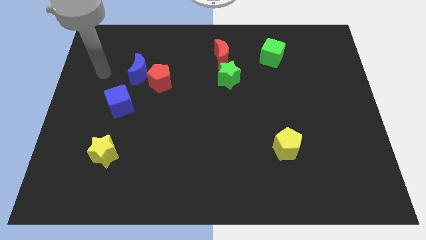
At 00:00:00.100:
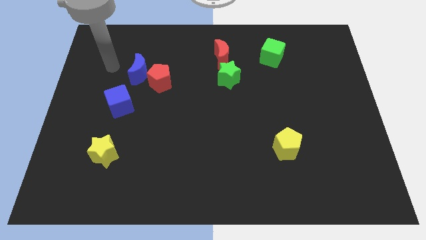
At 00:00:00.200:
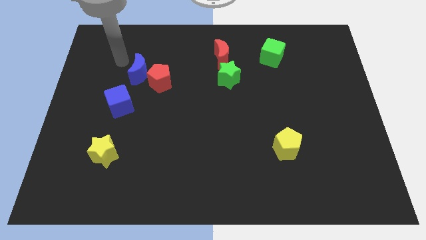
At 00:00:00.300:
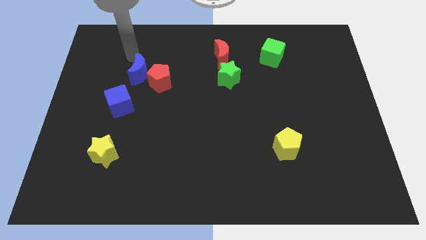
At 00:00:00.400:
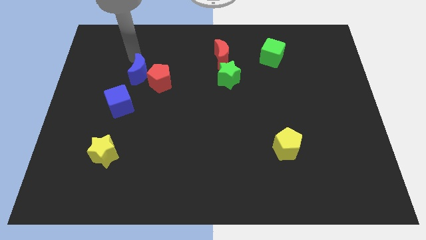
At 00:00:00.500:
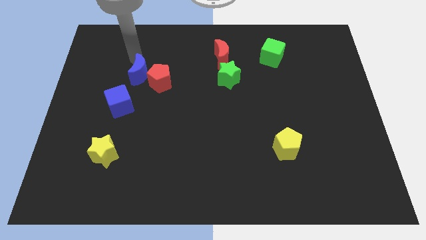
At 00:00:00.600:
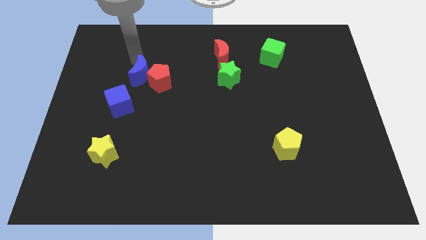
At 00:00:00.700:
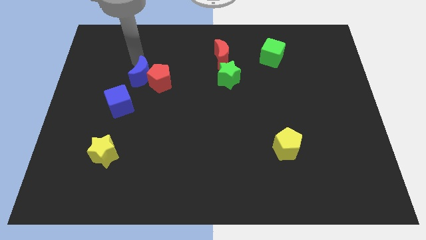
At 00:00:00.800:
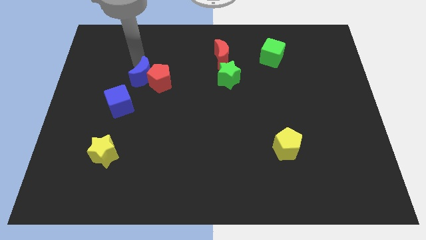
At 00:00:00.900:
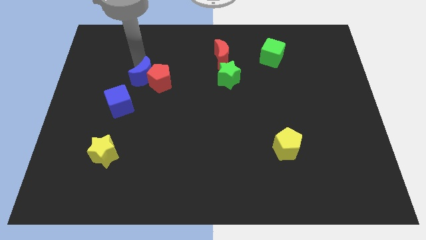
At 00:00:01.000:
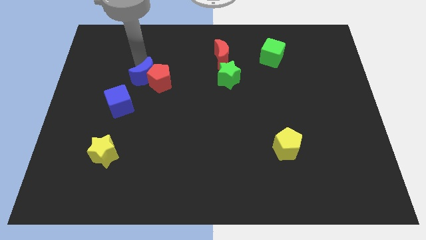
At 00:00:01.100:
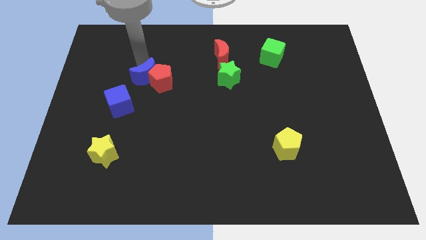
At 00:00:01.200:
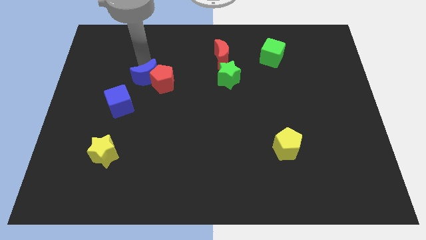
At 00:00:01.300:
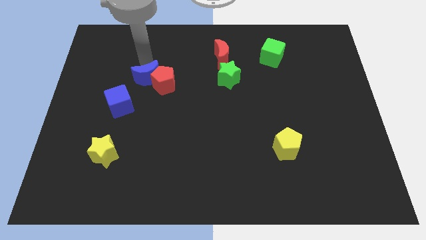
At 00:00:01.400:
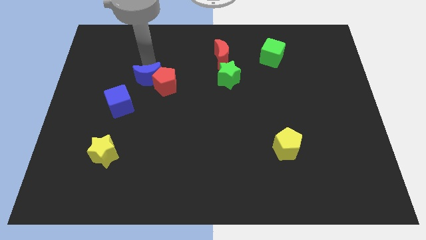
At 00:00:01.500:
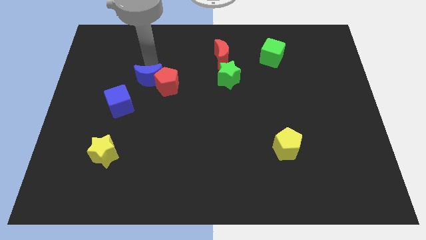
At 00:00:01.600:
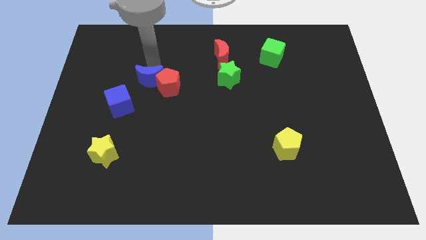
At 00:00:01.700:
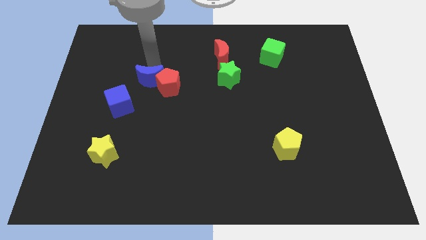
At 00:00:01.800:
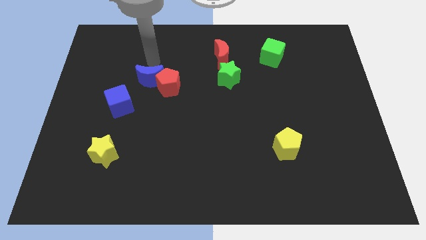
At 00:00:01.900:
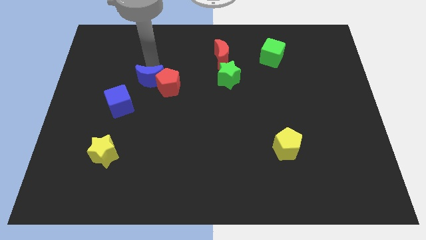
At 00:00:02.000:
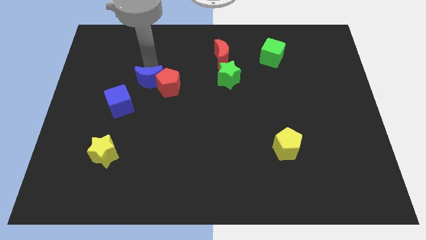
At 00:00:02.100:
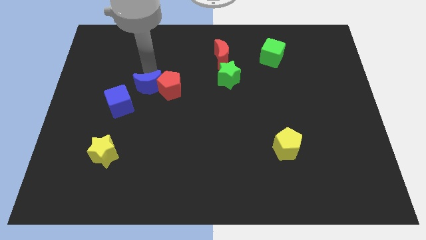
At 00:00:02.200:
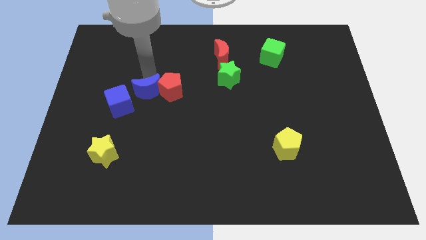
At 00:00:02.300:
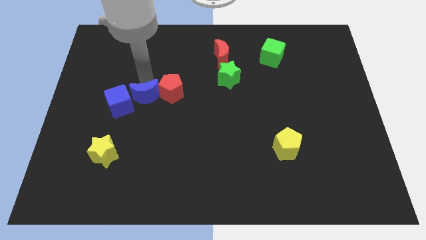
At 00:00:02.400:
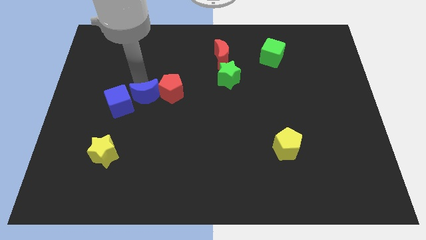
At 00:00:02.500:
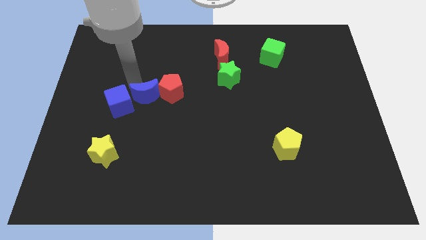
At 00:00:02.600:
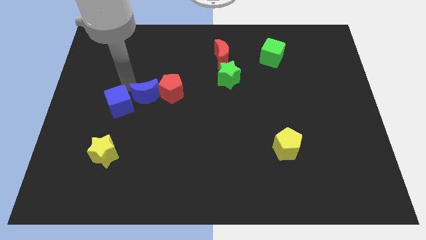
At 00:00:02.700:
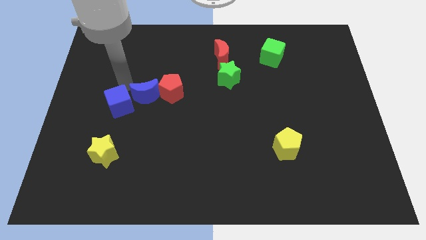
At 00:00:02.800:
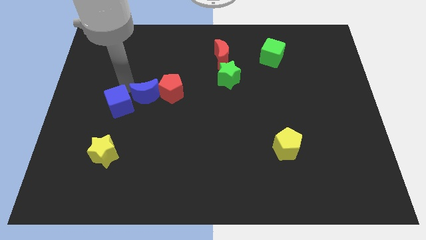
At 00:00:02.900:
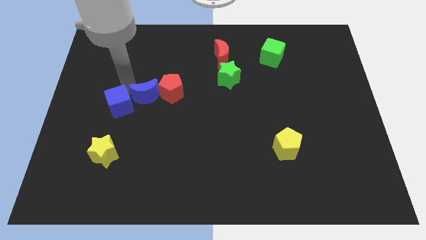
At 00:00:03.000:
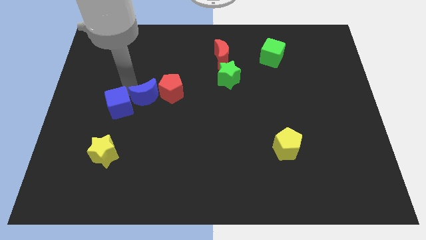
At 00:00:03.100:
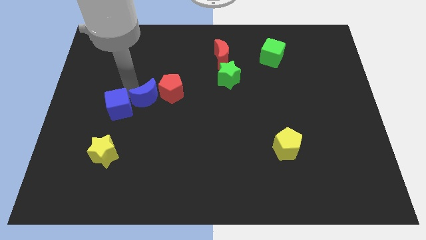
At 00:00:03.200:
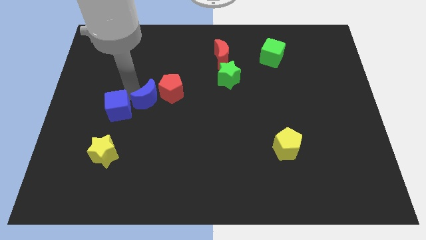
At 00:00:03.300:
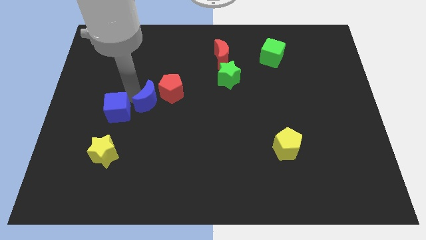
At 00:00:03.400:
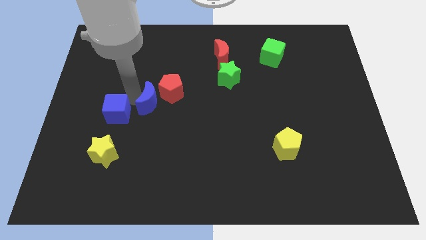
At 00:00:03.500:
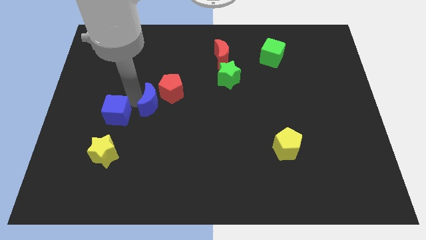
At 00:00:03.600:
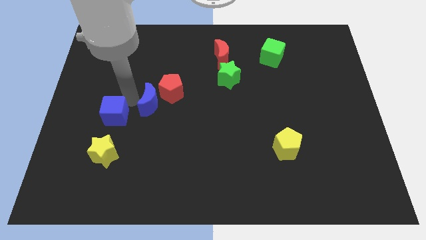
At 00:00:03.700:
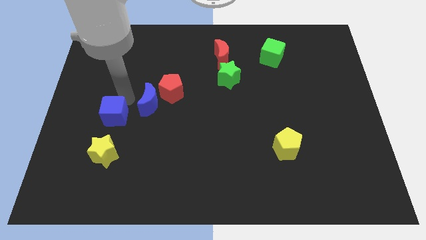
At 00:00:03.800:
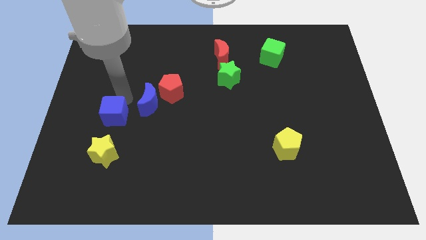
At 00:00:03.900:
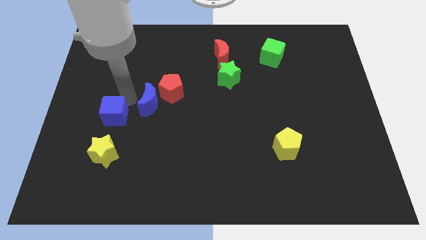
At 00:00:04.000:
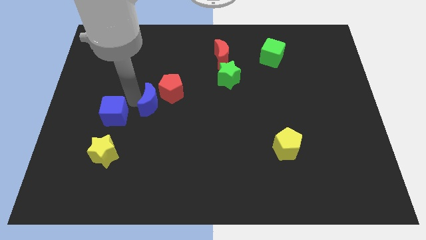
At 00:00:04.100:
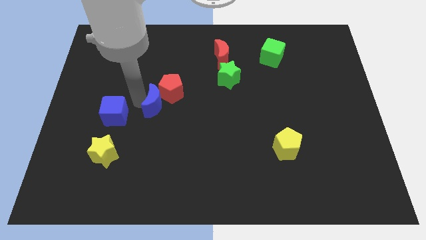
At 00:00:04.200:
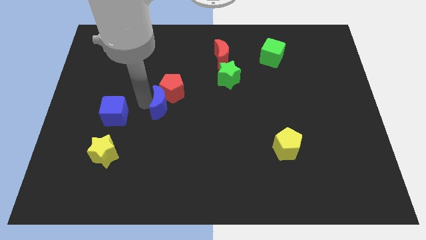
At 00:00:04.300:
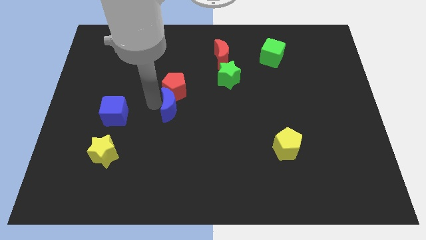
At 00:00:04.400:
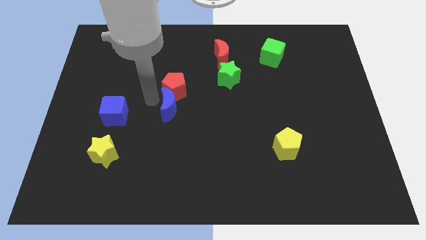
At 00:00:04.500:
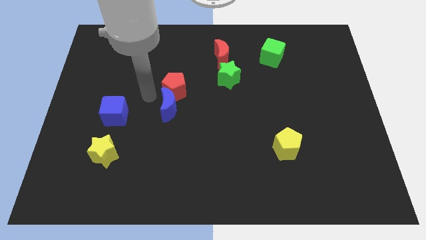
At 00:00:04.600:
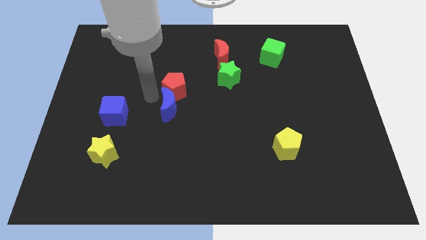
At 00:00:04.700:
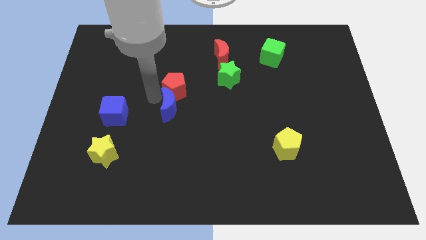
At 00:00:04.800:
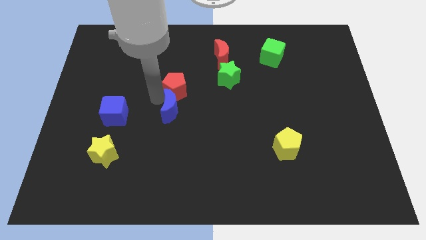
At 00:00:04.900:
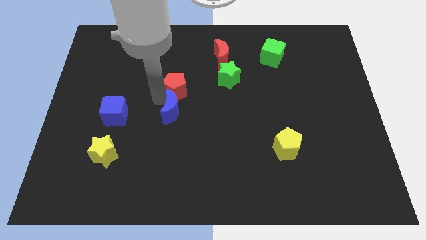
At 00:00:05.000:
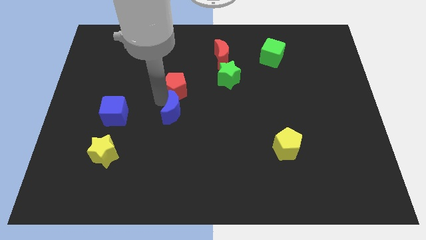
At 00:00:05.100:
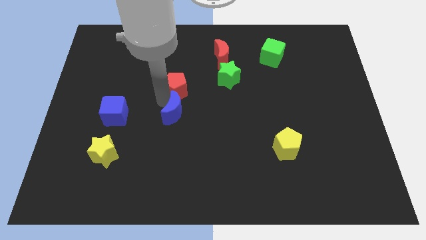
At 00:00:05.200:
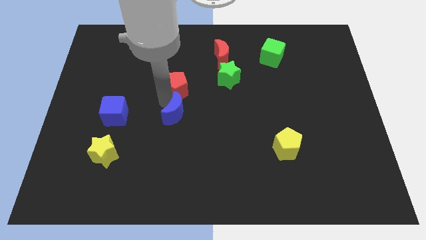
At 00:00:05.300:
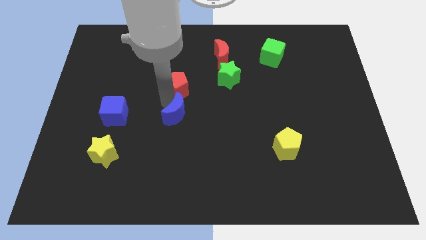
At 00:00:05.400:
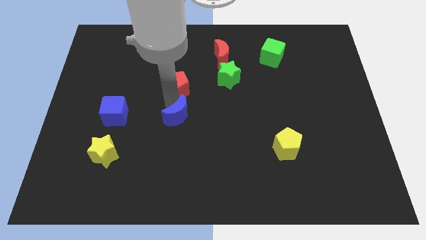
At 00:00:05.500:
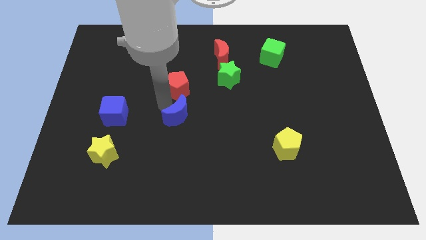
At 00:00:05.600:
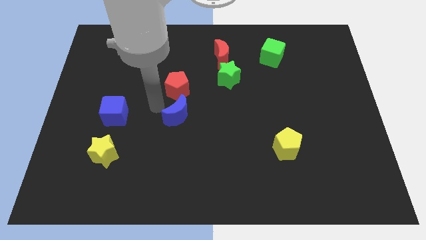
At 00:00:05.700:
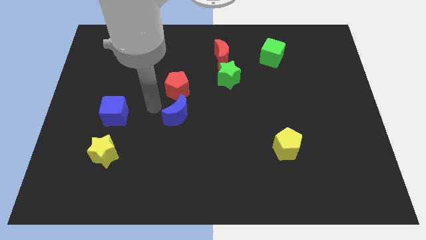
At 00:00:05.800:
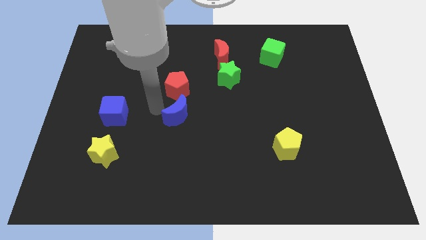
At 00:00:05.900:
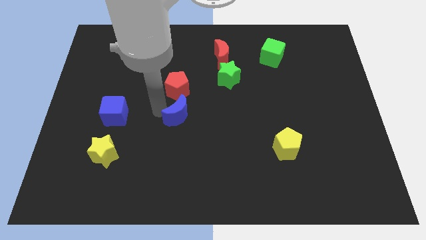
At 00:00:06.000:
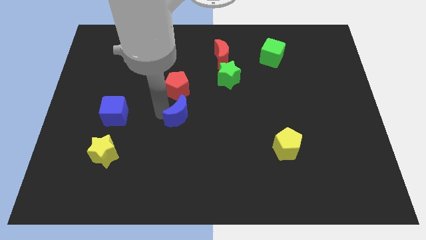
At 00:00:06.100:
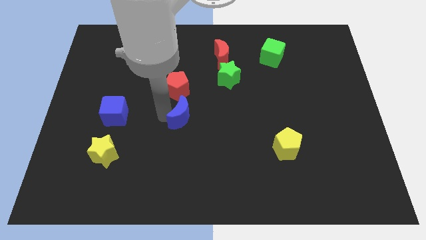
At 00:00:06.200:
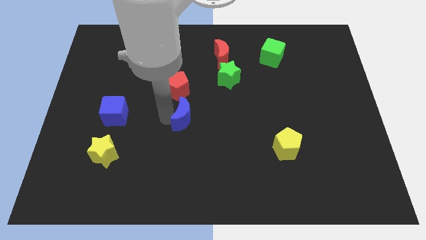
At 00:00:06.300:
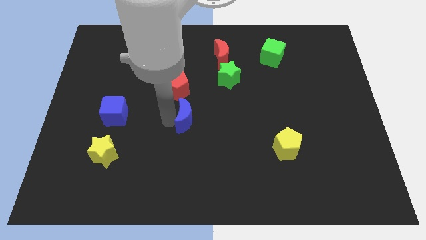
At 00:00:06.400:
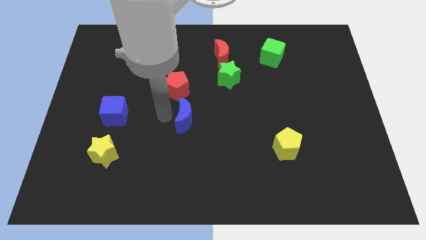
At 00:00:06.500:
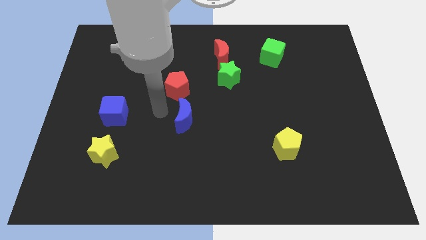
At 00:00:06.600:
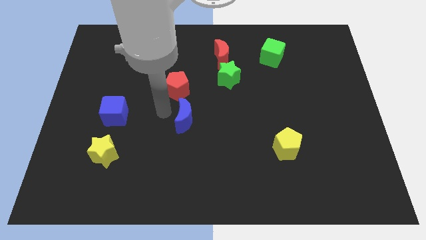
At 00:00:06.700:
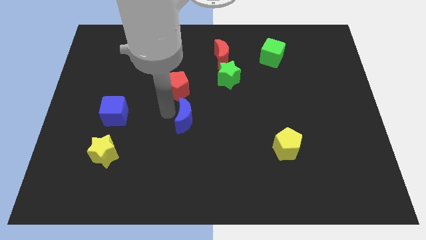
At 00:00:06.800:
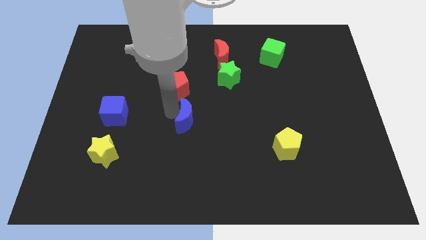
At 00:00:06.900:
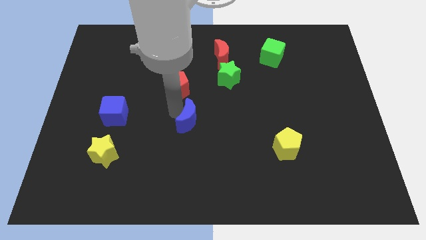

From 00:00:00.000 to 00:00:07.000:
move the blue moon down and then to the right

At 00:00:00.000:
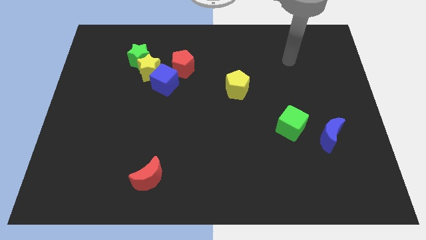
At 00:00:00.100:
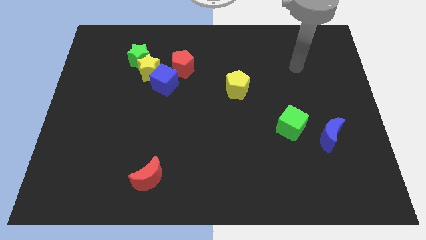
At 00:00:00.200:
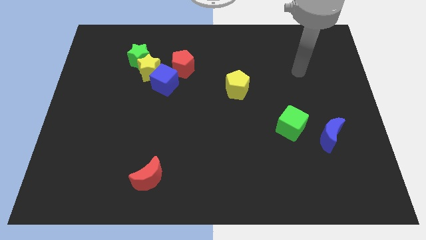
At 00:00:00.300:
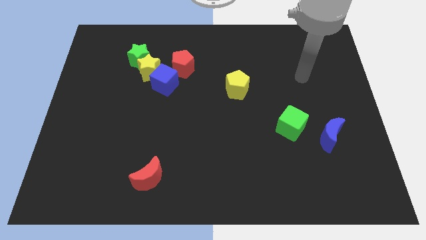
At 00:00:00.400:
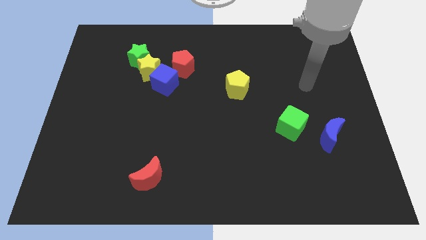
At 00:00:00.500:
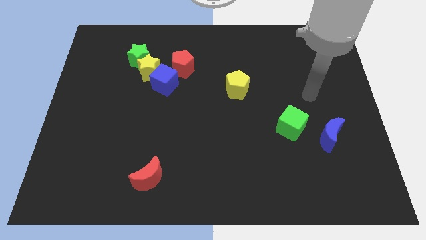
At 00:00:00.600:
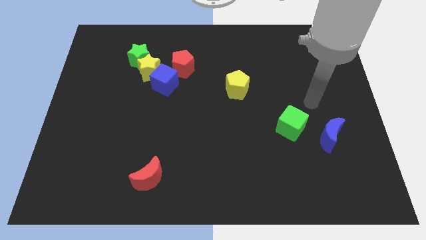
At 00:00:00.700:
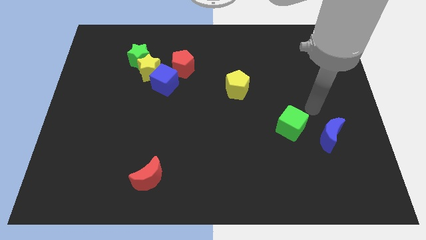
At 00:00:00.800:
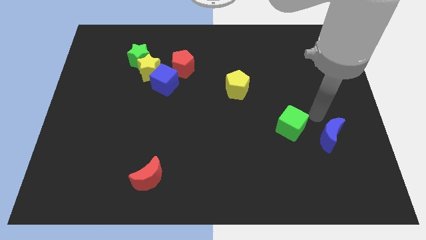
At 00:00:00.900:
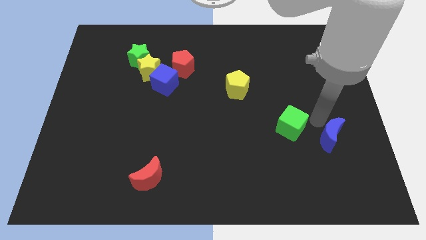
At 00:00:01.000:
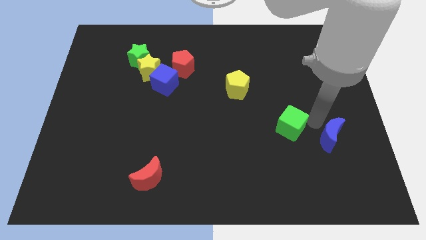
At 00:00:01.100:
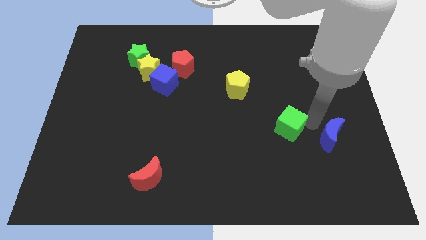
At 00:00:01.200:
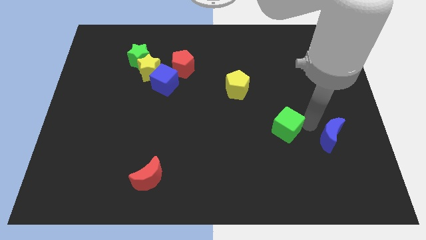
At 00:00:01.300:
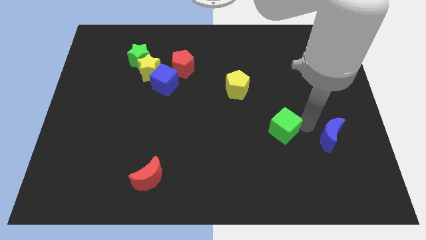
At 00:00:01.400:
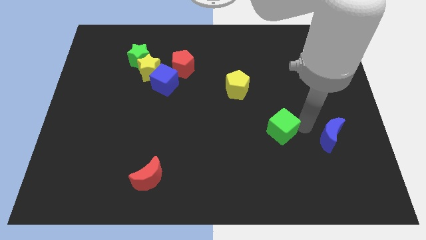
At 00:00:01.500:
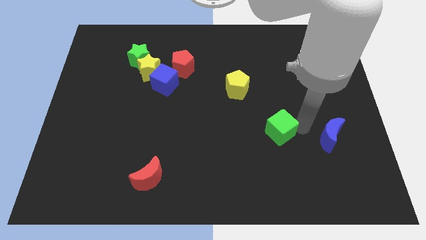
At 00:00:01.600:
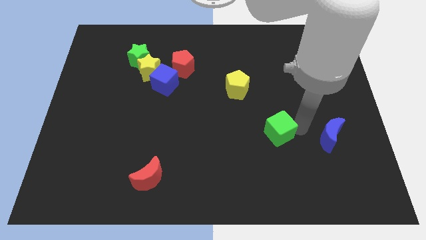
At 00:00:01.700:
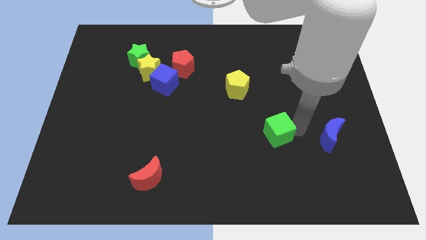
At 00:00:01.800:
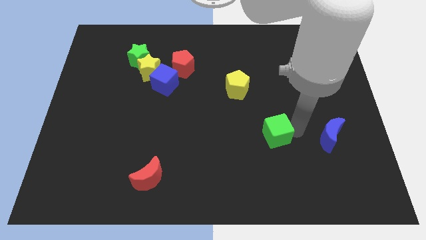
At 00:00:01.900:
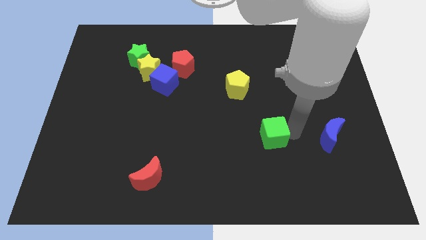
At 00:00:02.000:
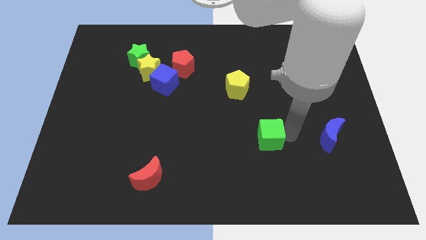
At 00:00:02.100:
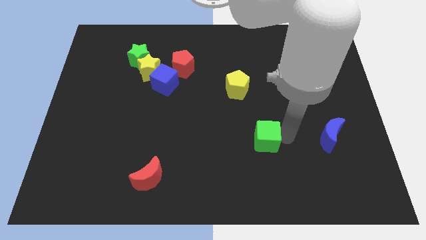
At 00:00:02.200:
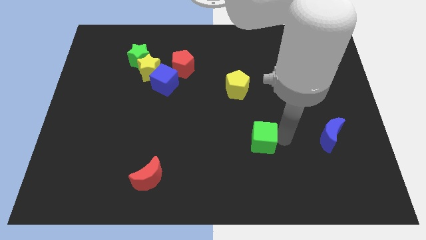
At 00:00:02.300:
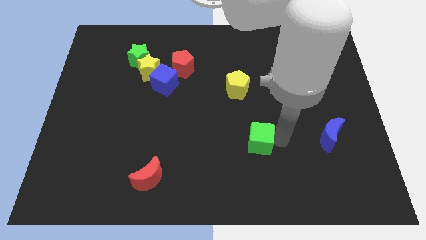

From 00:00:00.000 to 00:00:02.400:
slightly slide the green cube left
